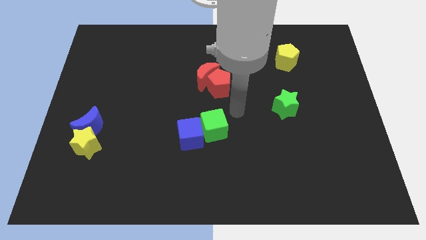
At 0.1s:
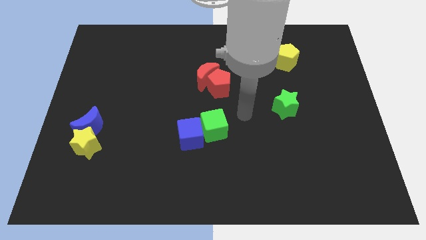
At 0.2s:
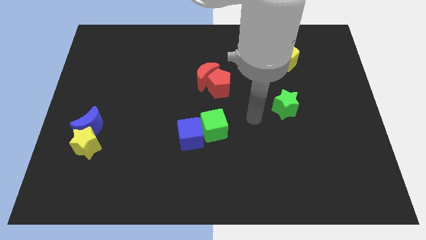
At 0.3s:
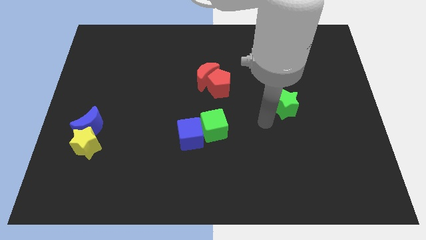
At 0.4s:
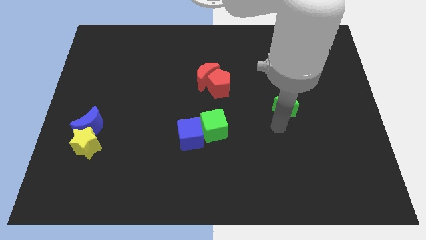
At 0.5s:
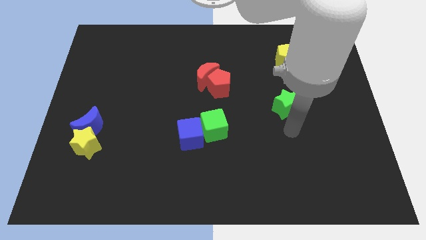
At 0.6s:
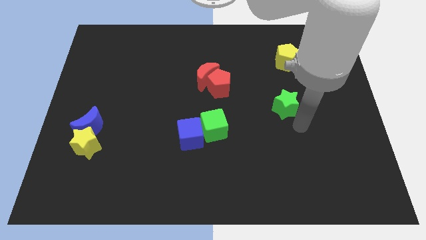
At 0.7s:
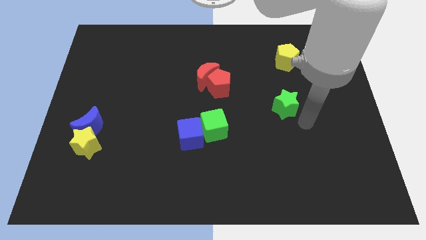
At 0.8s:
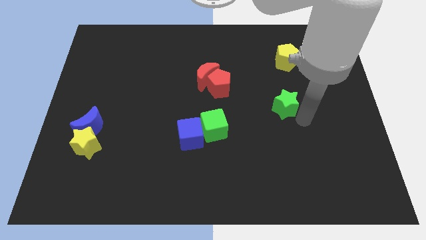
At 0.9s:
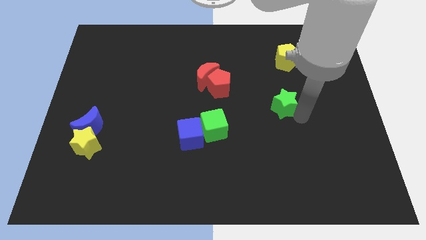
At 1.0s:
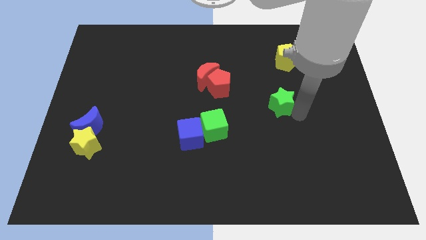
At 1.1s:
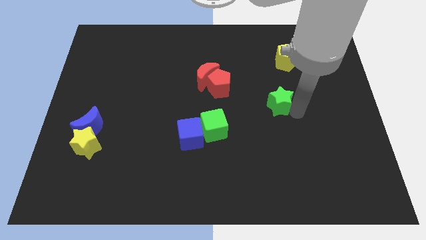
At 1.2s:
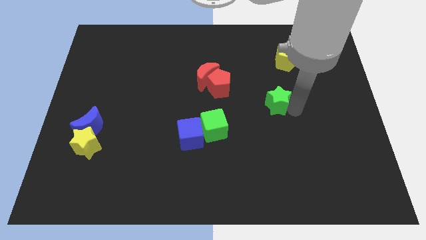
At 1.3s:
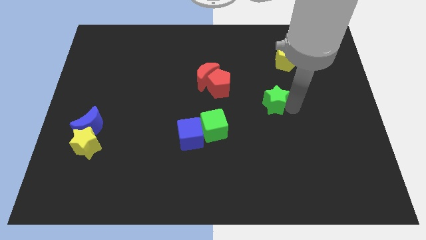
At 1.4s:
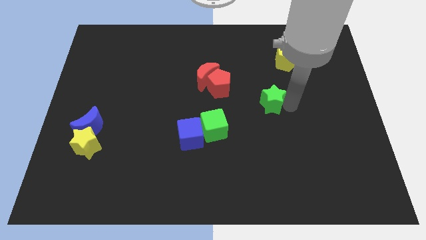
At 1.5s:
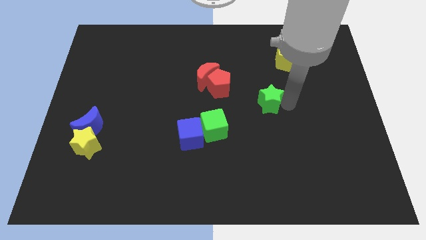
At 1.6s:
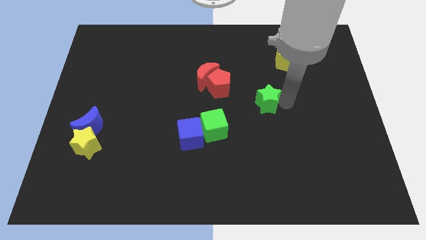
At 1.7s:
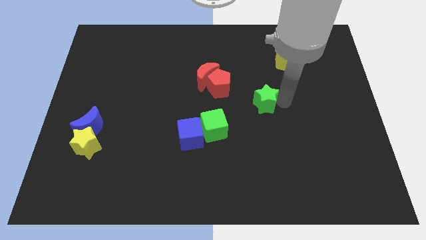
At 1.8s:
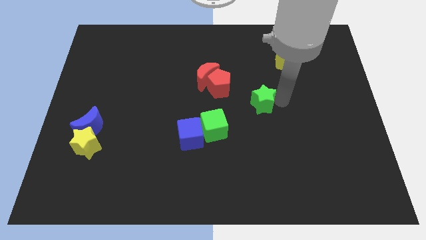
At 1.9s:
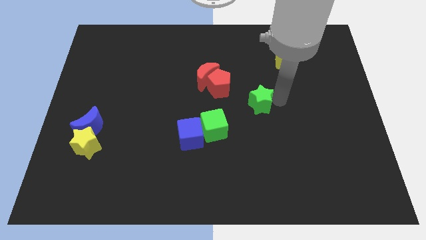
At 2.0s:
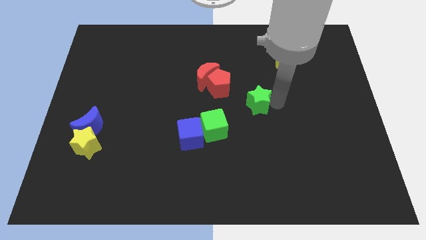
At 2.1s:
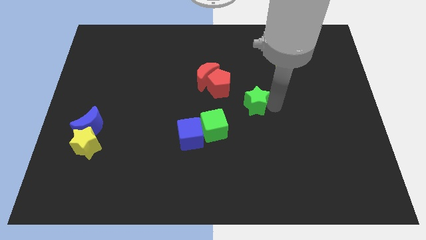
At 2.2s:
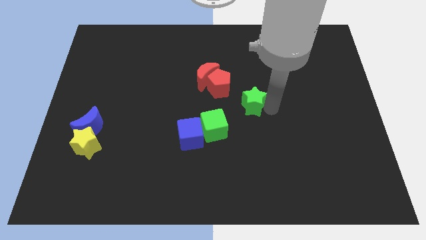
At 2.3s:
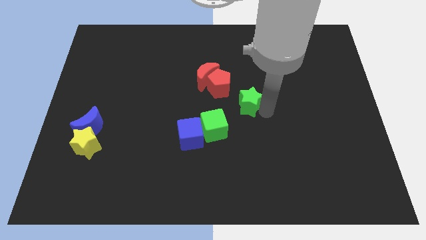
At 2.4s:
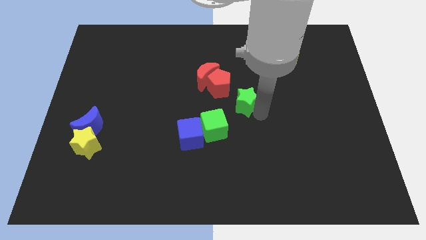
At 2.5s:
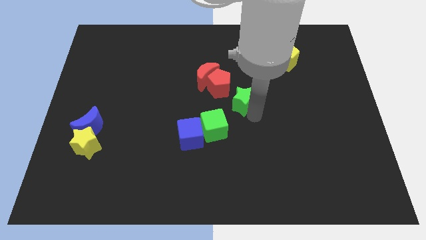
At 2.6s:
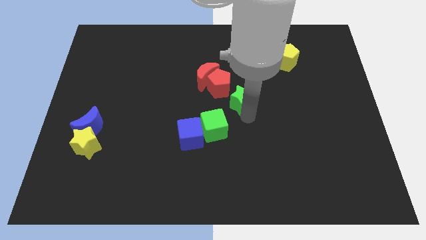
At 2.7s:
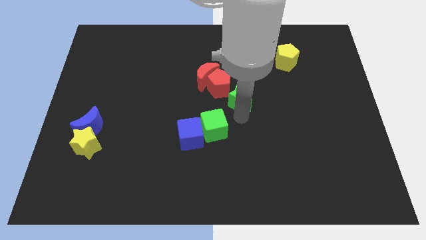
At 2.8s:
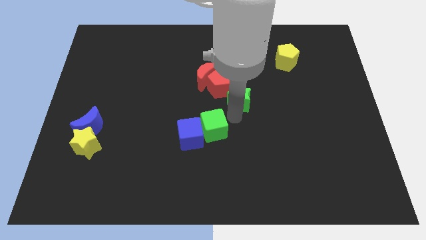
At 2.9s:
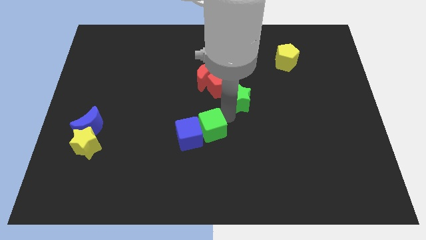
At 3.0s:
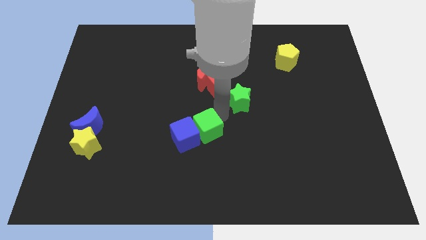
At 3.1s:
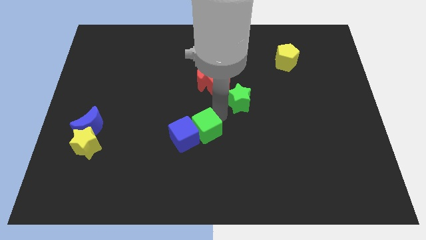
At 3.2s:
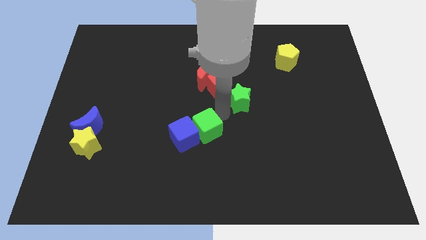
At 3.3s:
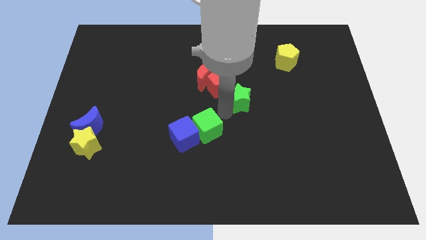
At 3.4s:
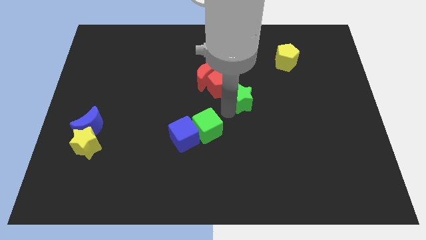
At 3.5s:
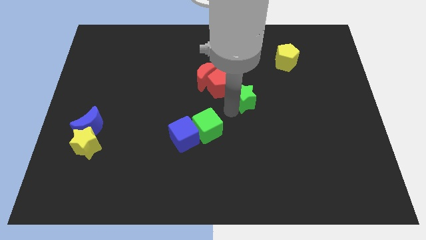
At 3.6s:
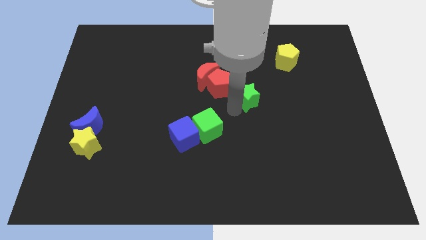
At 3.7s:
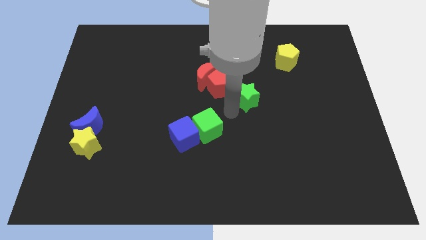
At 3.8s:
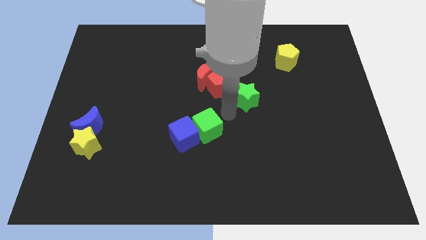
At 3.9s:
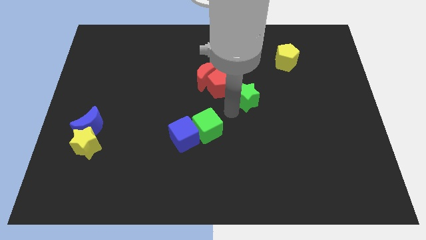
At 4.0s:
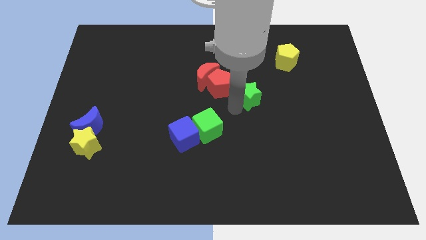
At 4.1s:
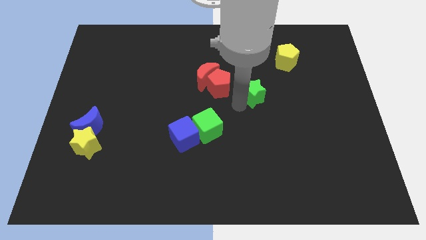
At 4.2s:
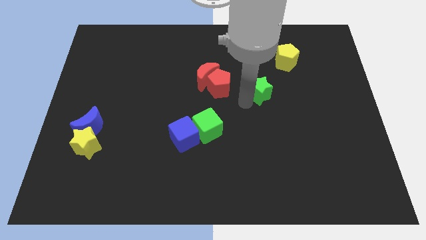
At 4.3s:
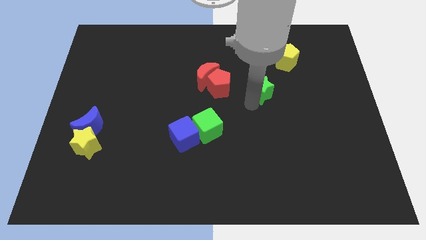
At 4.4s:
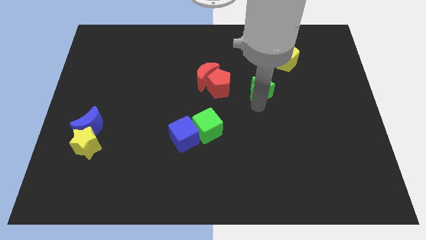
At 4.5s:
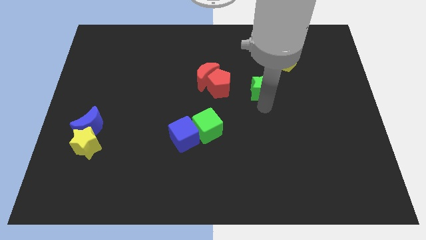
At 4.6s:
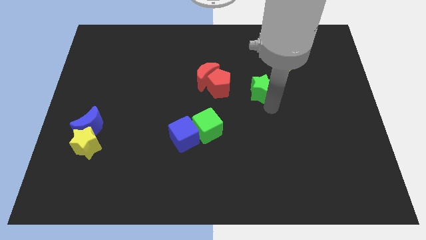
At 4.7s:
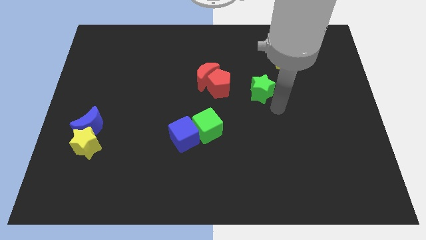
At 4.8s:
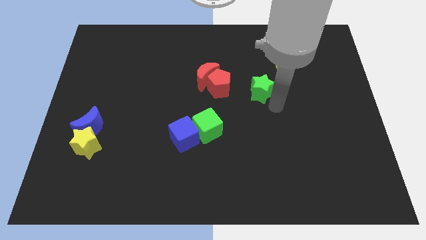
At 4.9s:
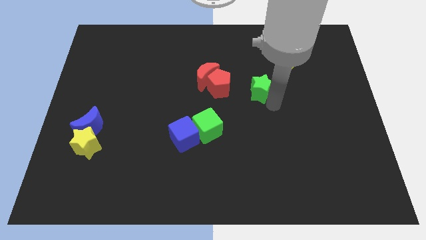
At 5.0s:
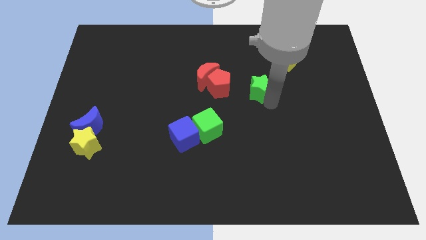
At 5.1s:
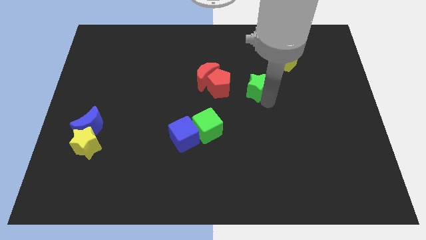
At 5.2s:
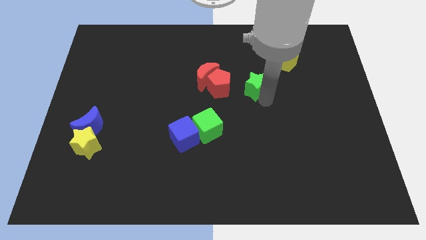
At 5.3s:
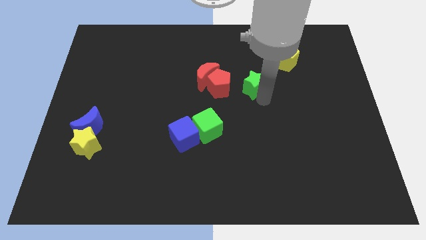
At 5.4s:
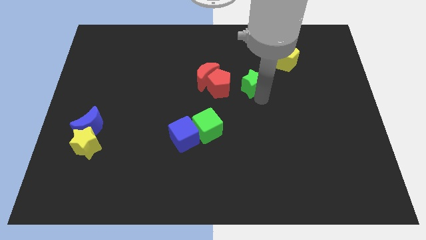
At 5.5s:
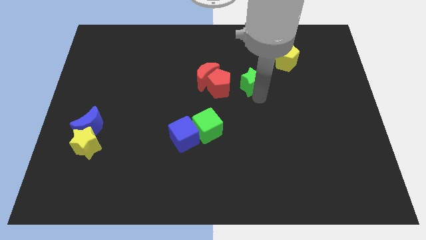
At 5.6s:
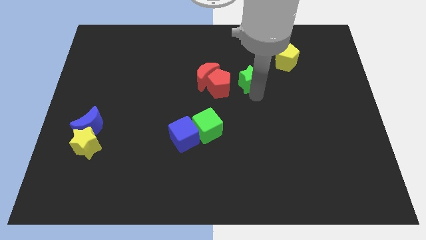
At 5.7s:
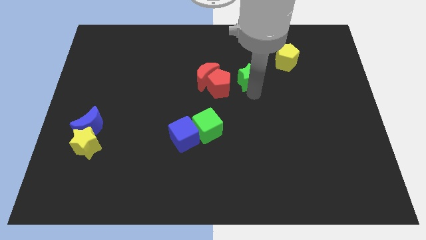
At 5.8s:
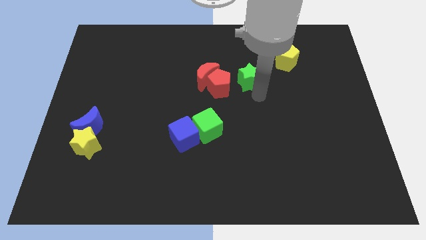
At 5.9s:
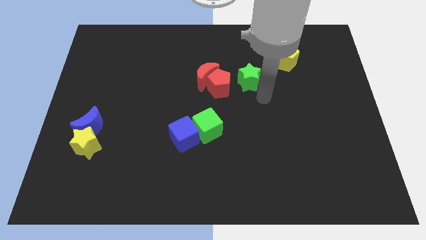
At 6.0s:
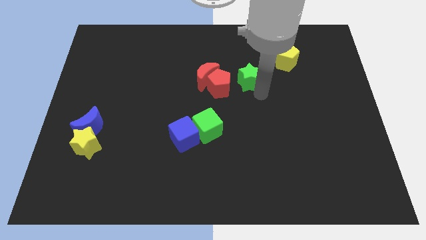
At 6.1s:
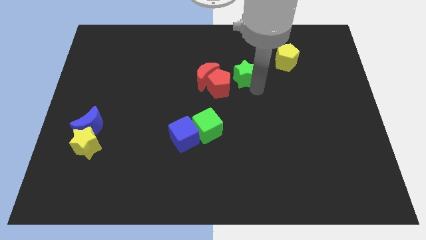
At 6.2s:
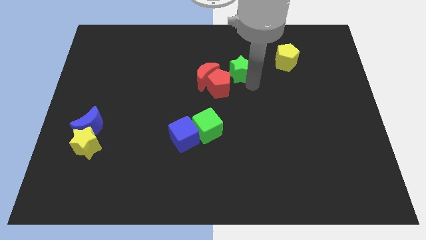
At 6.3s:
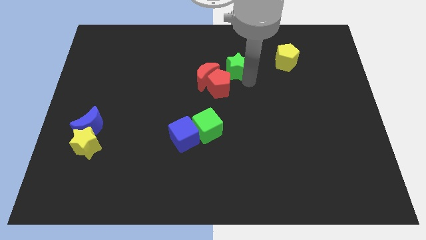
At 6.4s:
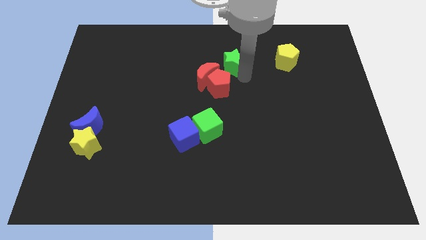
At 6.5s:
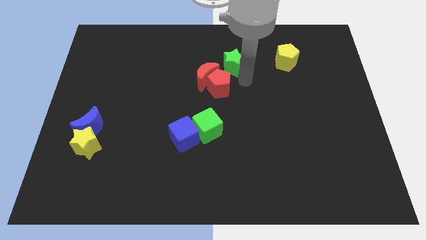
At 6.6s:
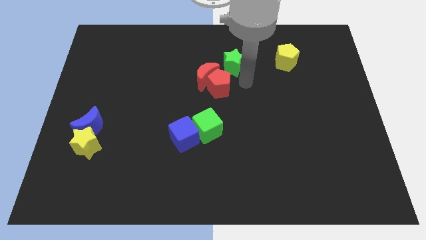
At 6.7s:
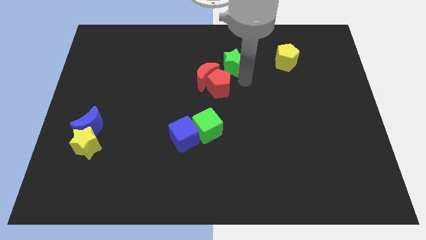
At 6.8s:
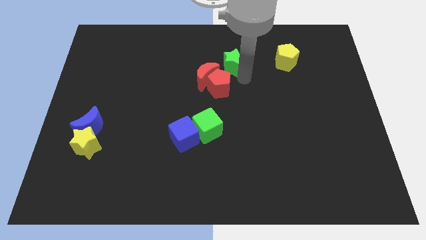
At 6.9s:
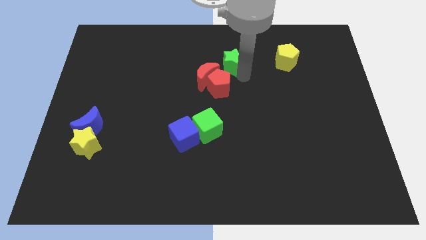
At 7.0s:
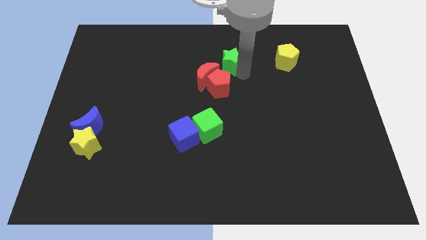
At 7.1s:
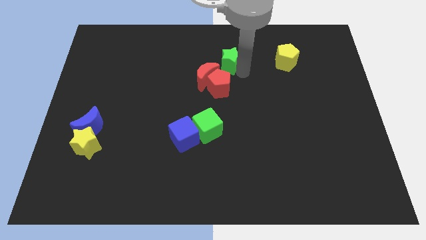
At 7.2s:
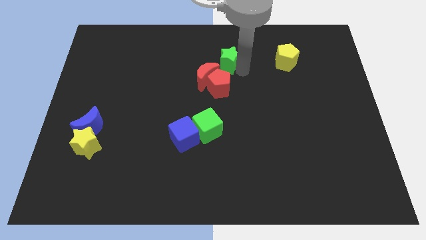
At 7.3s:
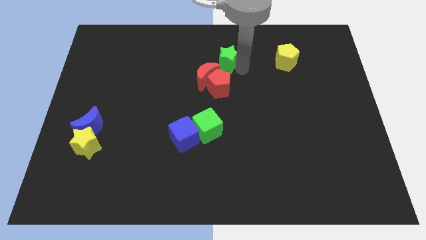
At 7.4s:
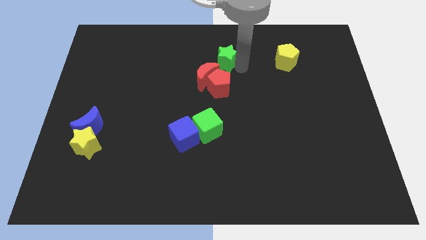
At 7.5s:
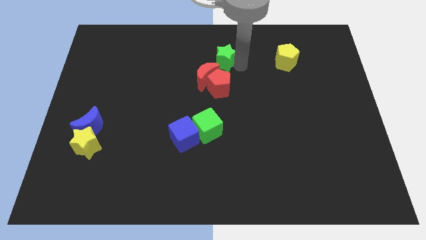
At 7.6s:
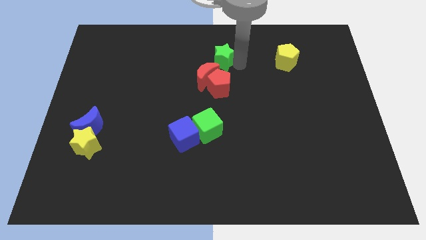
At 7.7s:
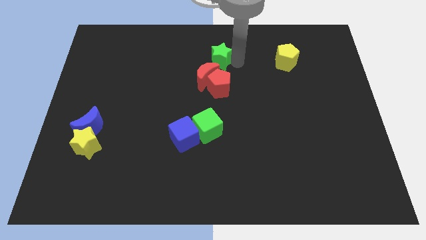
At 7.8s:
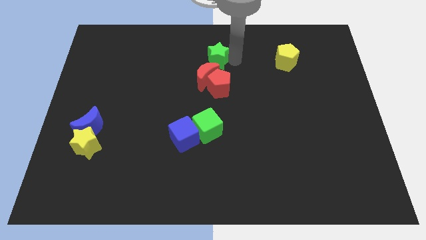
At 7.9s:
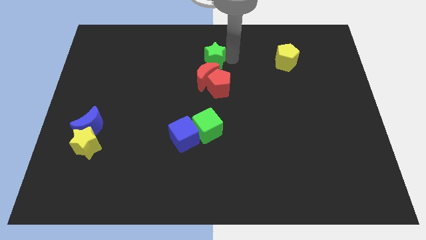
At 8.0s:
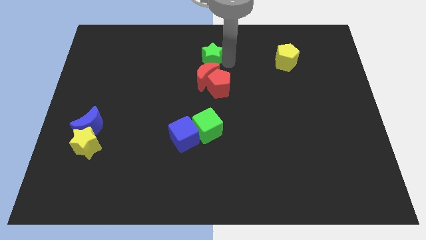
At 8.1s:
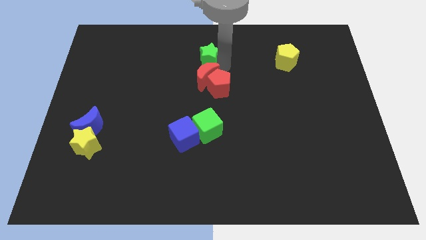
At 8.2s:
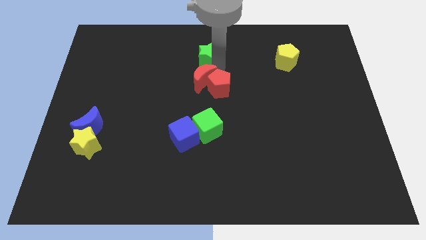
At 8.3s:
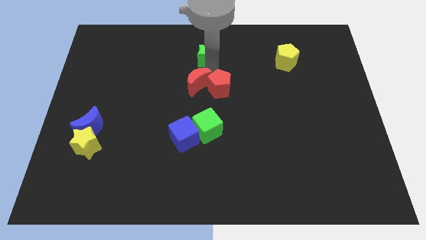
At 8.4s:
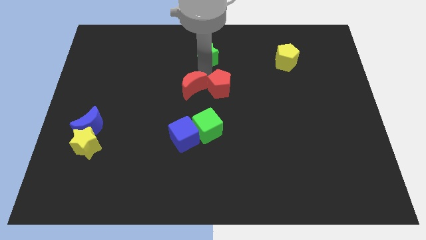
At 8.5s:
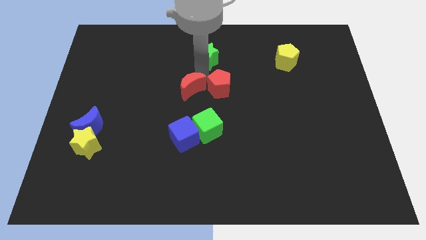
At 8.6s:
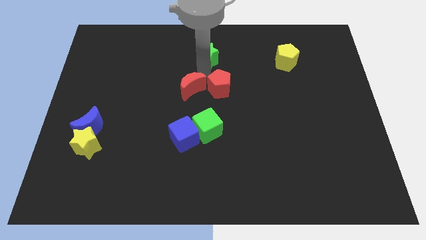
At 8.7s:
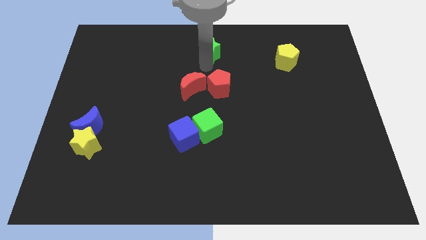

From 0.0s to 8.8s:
put the green star to the towards your base
